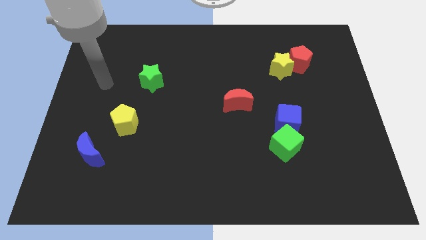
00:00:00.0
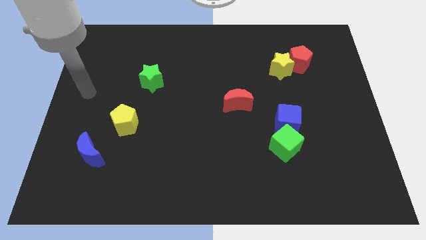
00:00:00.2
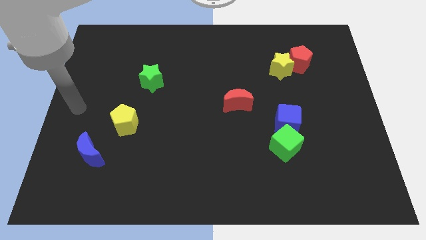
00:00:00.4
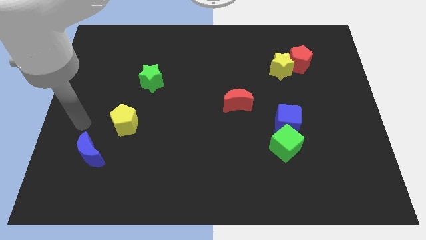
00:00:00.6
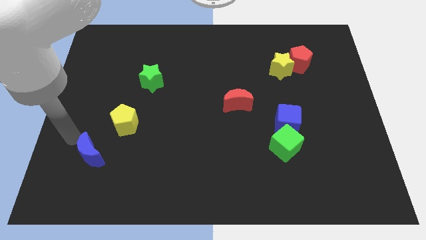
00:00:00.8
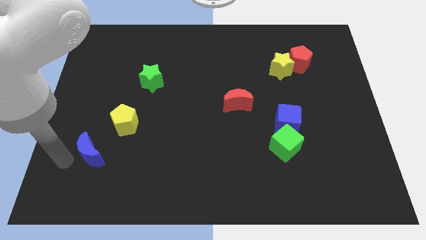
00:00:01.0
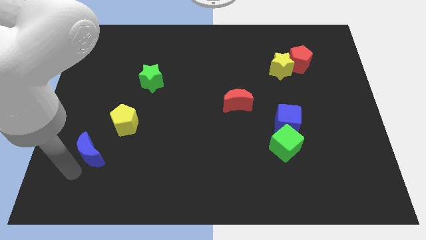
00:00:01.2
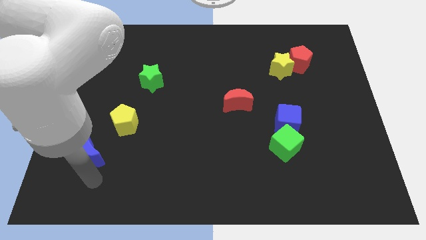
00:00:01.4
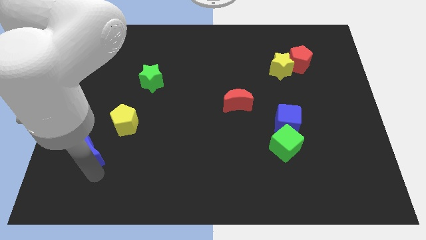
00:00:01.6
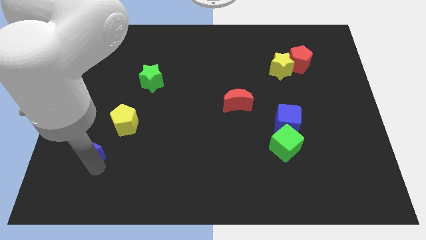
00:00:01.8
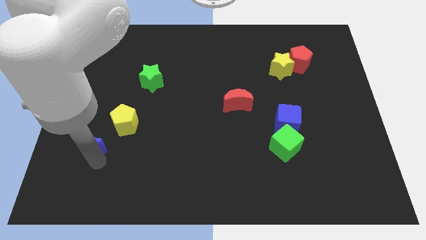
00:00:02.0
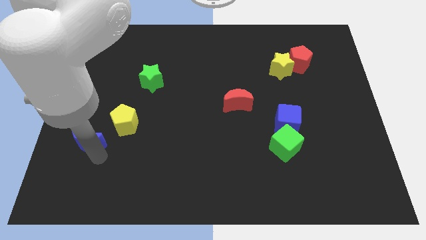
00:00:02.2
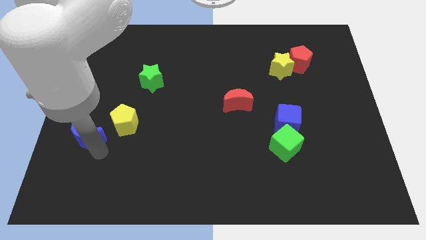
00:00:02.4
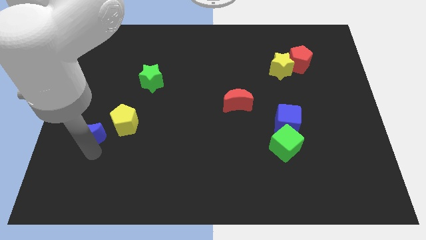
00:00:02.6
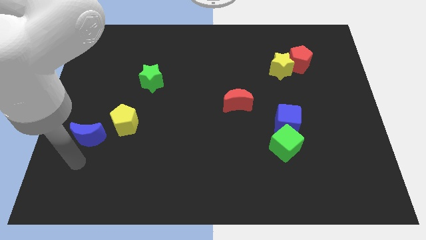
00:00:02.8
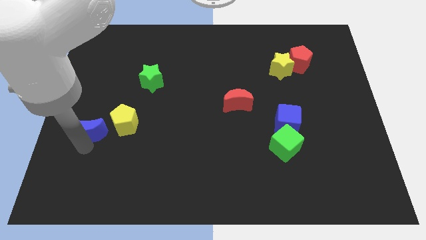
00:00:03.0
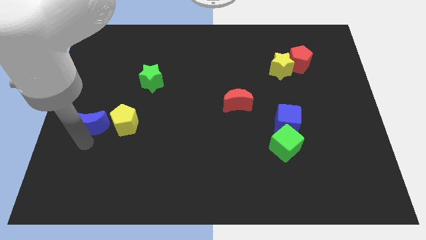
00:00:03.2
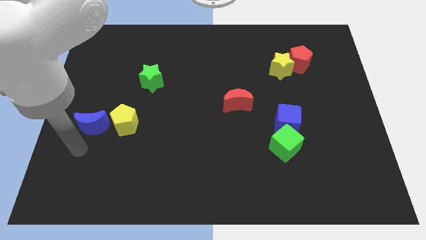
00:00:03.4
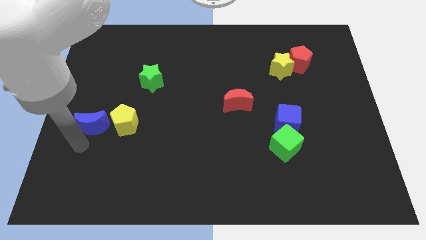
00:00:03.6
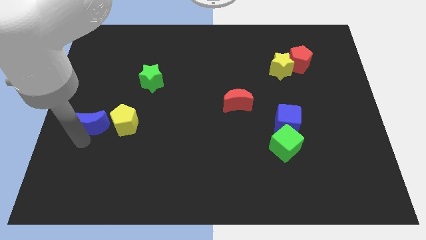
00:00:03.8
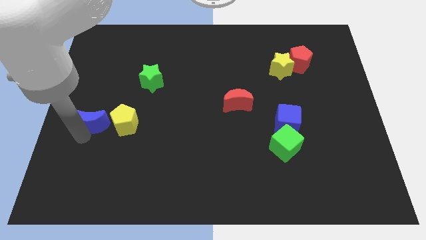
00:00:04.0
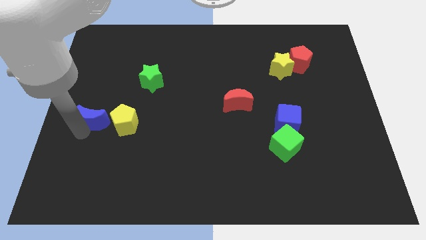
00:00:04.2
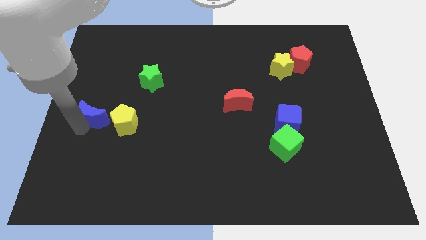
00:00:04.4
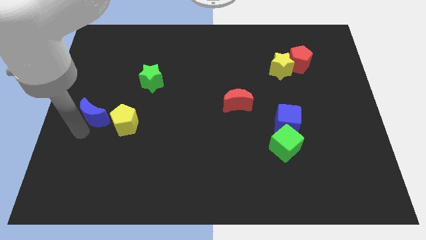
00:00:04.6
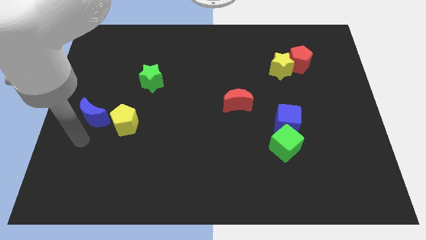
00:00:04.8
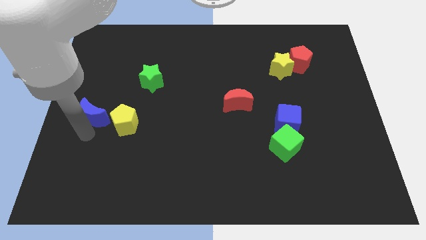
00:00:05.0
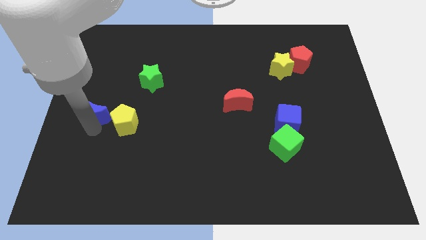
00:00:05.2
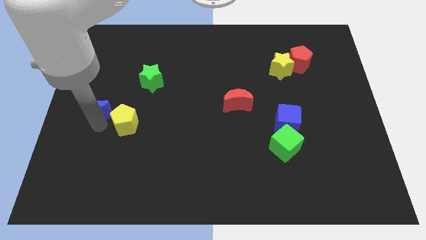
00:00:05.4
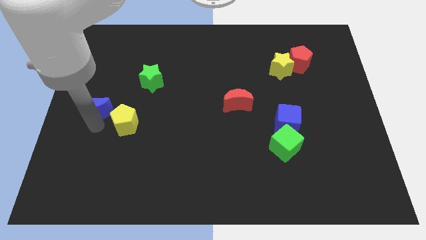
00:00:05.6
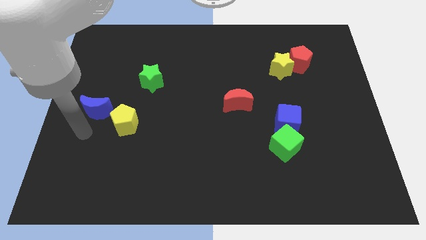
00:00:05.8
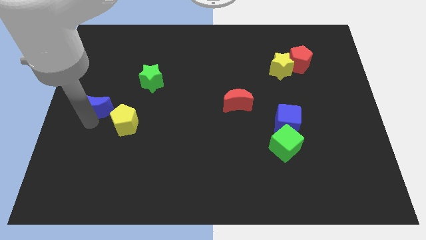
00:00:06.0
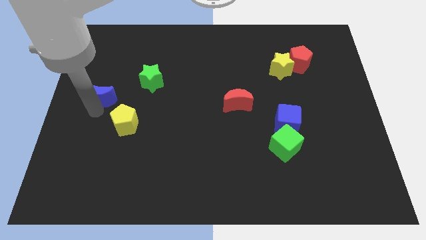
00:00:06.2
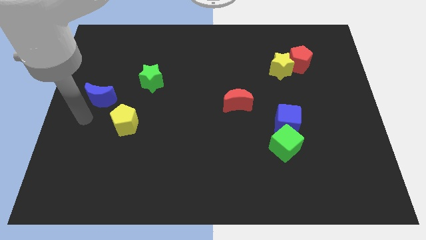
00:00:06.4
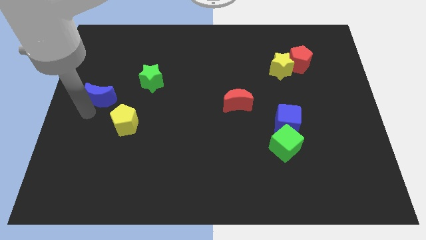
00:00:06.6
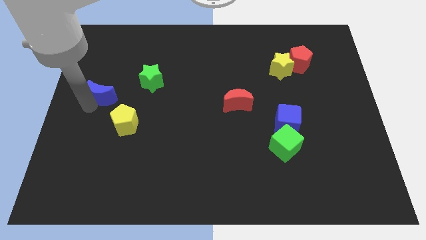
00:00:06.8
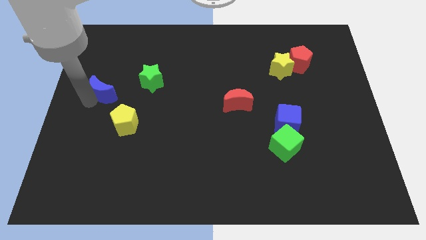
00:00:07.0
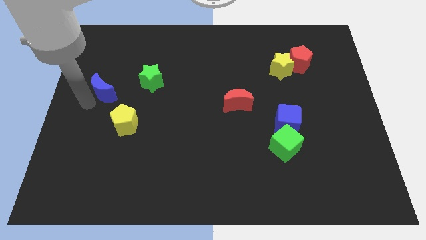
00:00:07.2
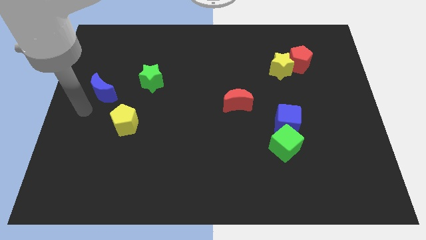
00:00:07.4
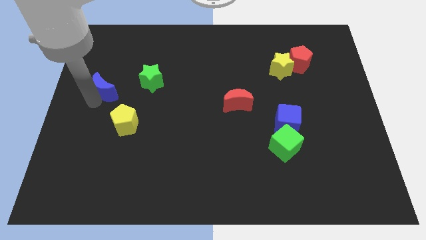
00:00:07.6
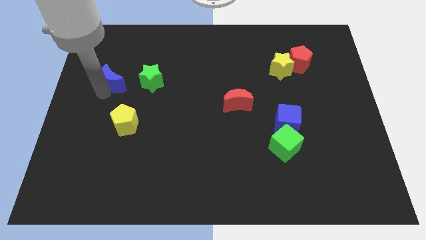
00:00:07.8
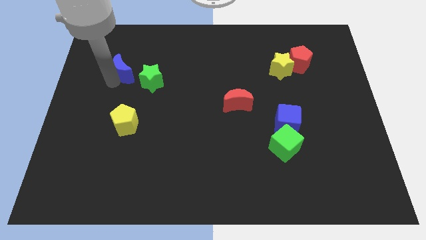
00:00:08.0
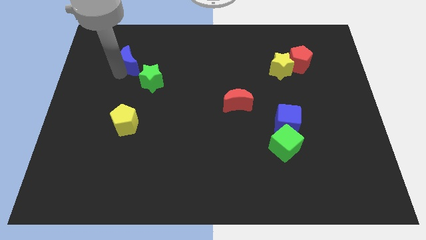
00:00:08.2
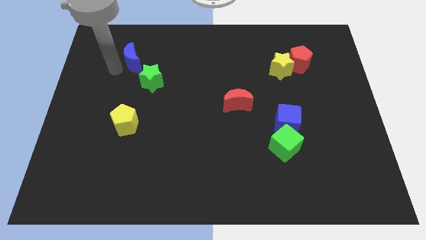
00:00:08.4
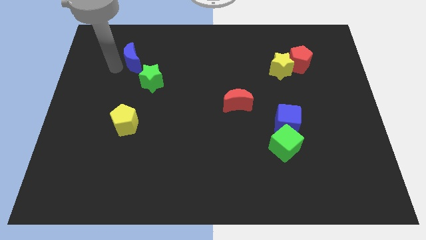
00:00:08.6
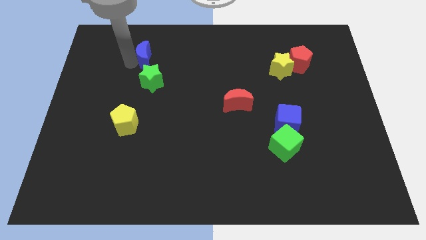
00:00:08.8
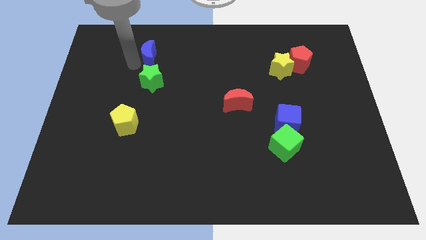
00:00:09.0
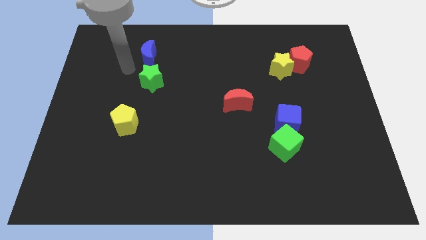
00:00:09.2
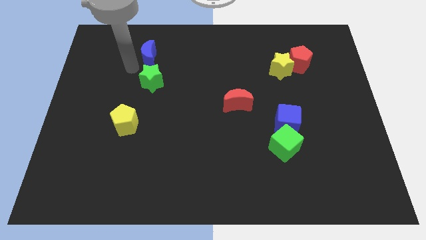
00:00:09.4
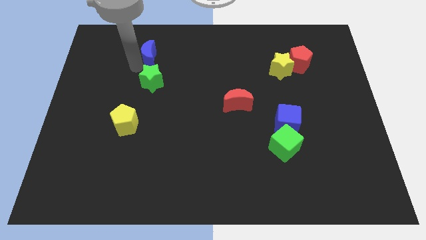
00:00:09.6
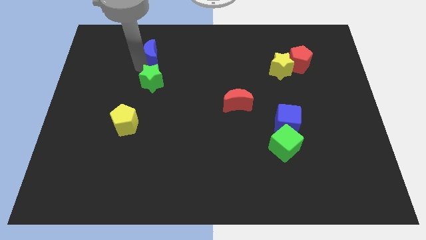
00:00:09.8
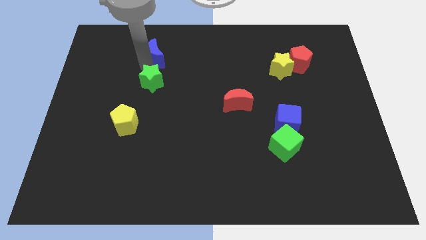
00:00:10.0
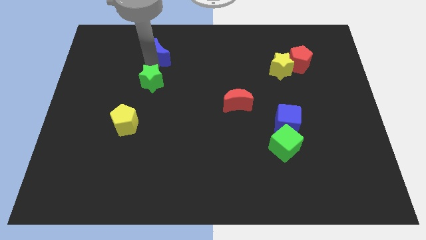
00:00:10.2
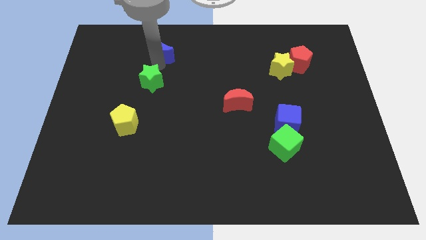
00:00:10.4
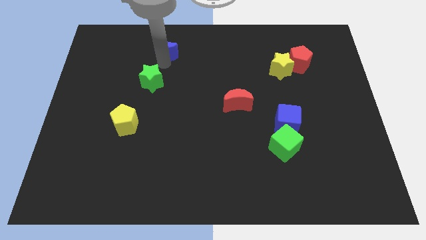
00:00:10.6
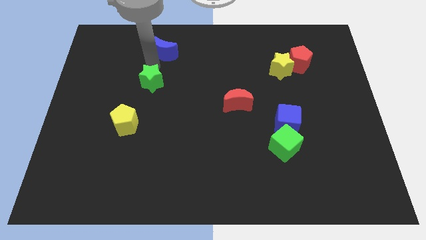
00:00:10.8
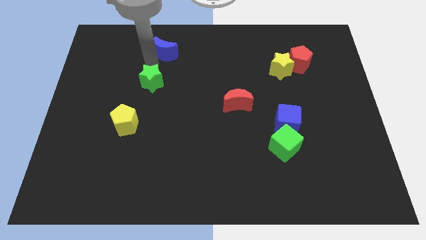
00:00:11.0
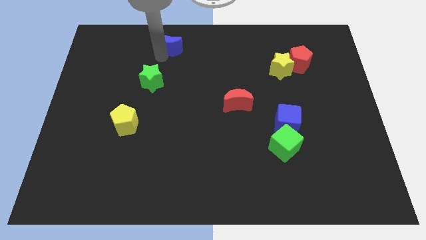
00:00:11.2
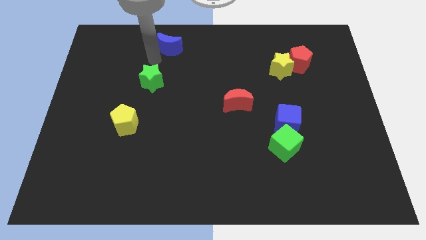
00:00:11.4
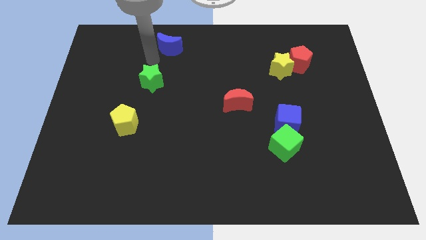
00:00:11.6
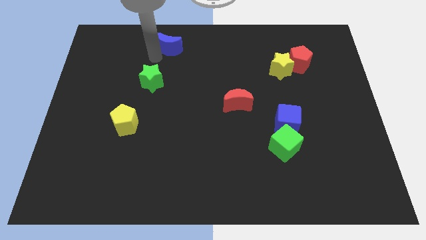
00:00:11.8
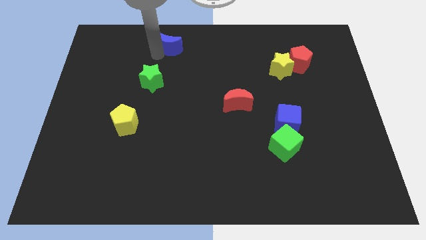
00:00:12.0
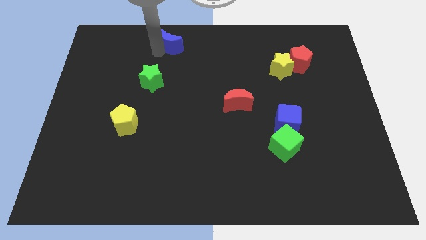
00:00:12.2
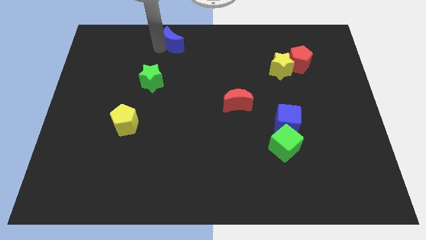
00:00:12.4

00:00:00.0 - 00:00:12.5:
slide the blue moon to the top side

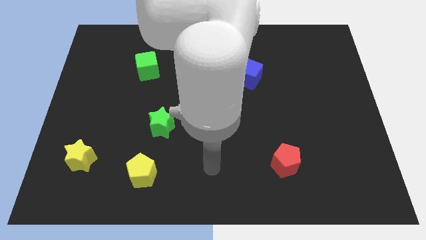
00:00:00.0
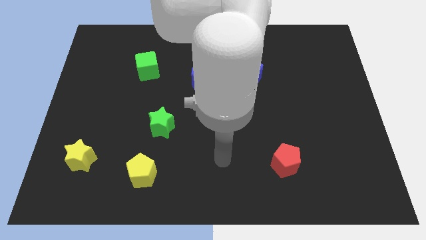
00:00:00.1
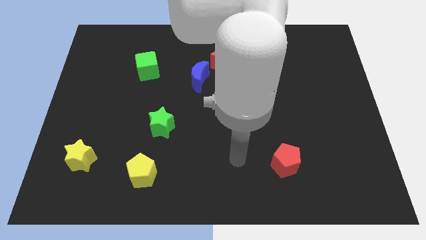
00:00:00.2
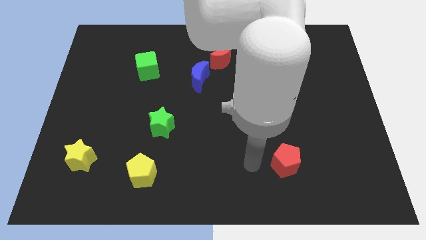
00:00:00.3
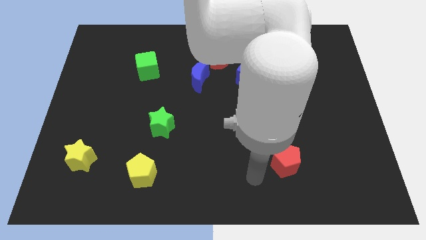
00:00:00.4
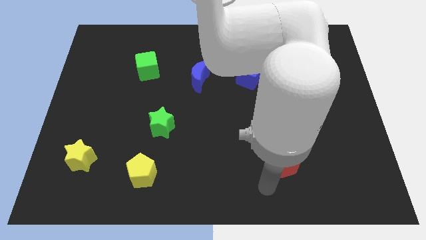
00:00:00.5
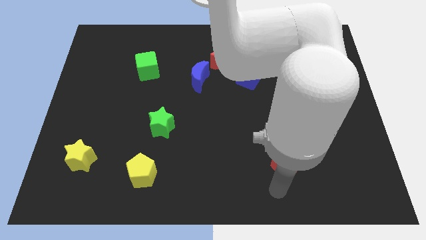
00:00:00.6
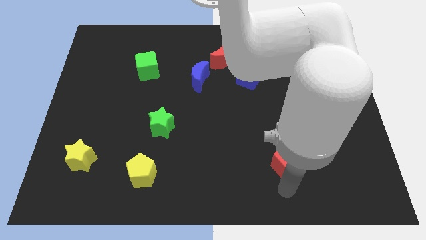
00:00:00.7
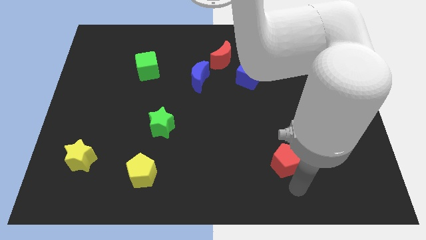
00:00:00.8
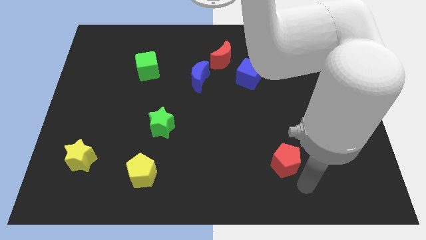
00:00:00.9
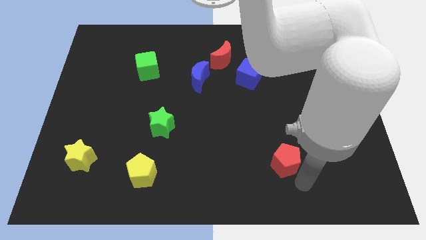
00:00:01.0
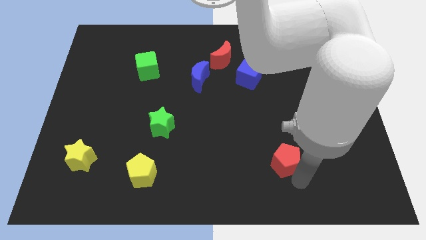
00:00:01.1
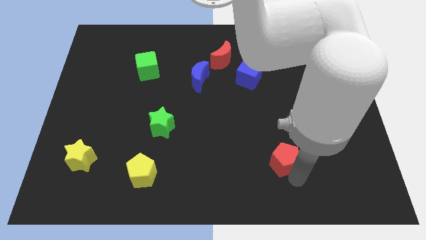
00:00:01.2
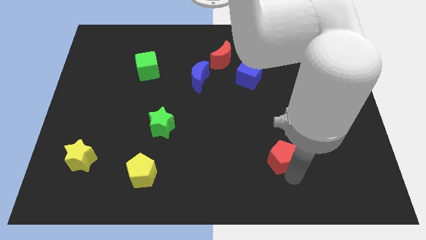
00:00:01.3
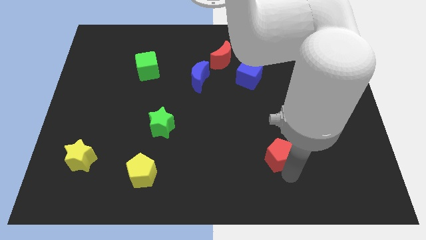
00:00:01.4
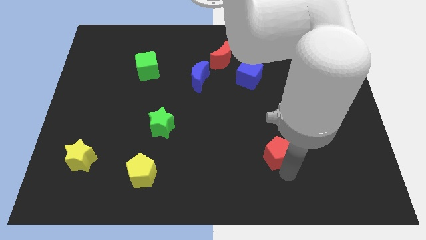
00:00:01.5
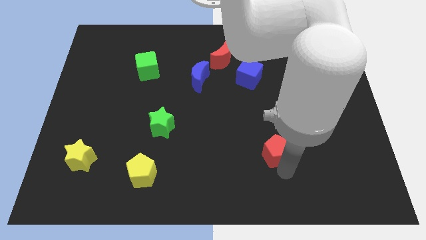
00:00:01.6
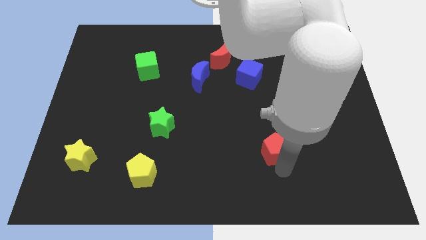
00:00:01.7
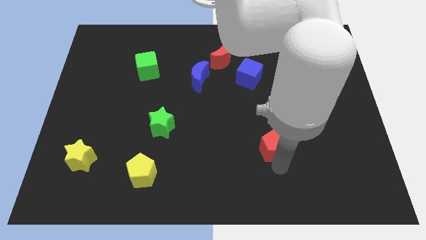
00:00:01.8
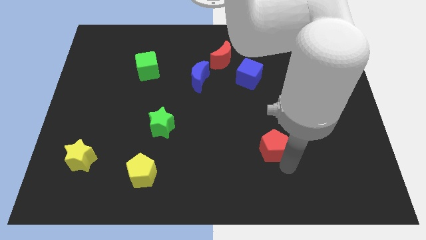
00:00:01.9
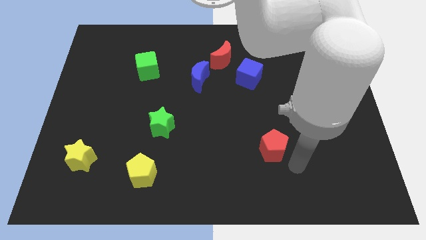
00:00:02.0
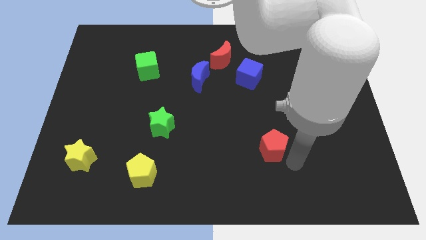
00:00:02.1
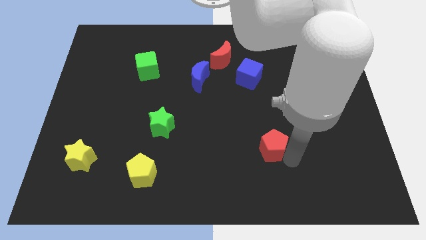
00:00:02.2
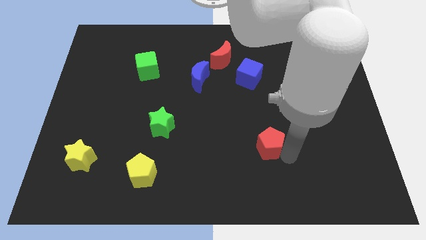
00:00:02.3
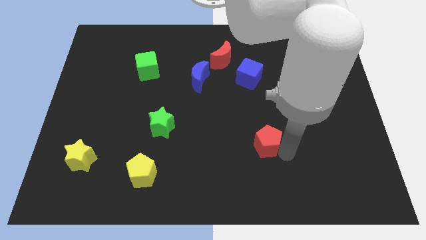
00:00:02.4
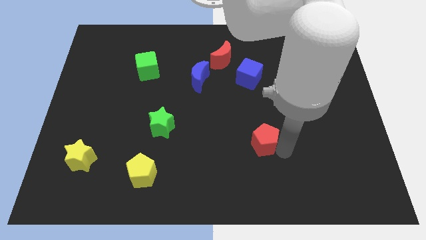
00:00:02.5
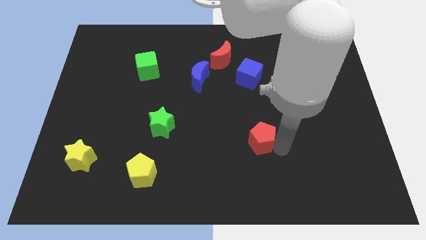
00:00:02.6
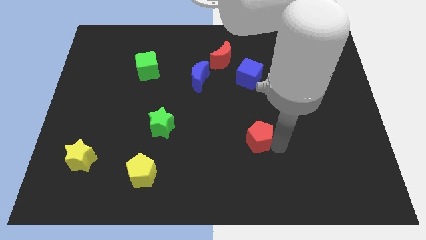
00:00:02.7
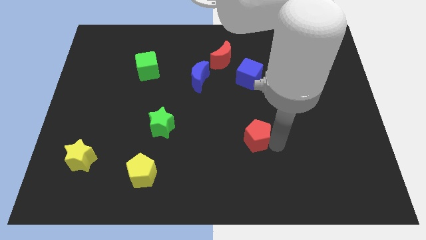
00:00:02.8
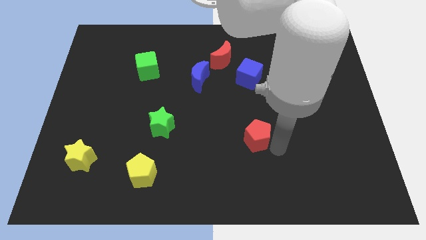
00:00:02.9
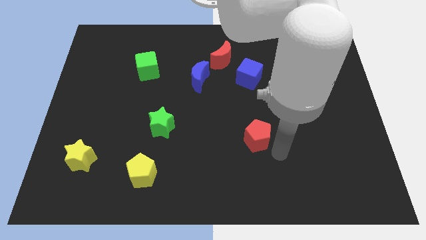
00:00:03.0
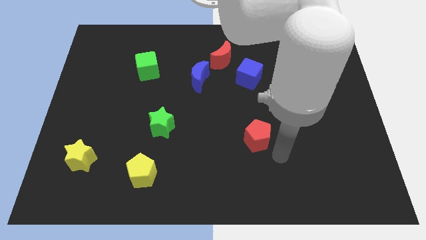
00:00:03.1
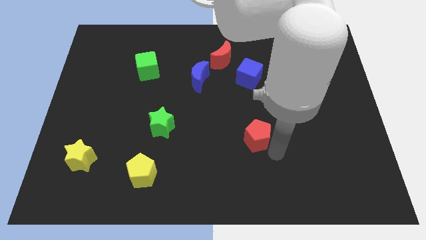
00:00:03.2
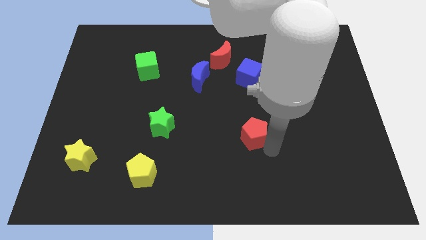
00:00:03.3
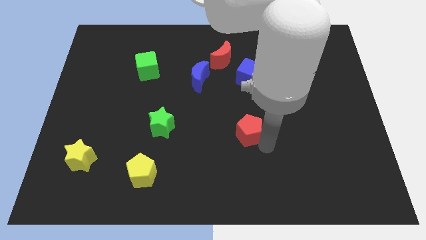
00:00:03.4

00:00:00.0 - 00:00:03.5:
slide the red pentagon to the center
